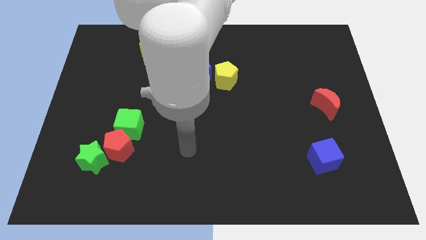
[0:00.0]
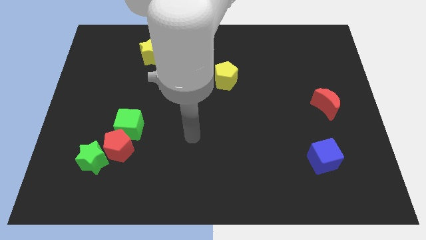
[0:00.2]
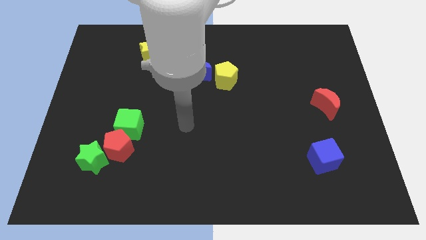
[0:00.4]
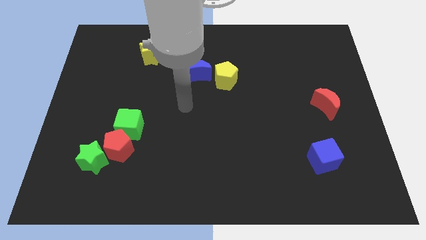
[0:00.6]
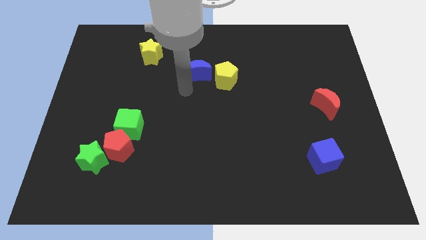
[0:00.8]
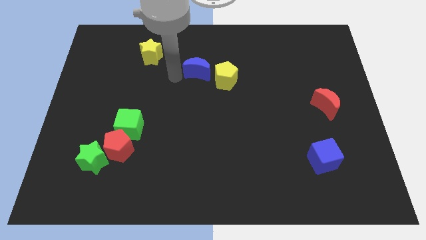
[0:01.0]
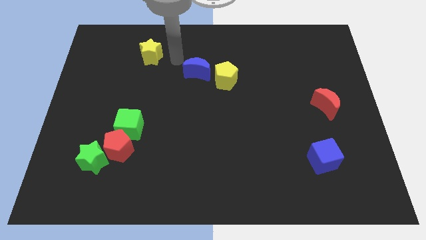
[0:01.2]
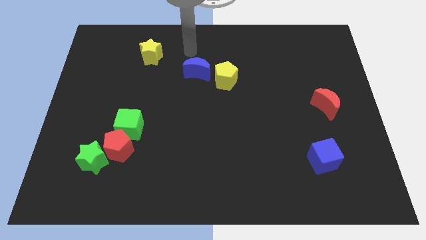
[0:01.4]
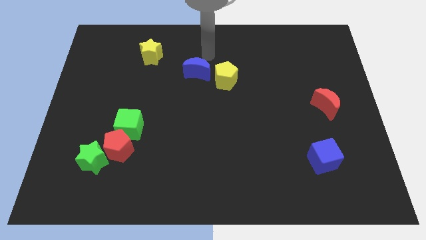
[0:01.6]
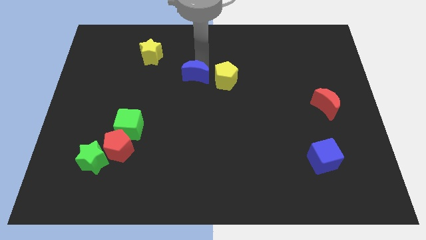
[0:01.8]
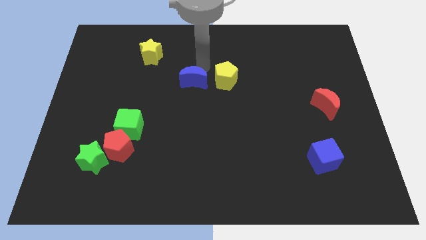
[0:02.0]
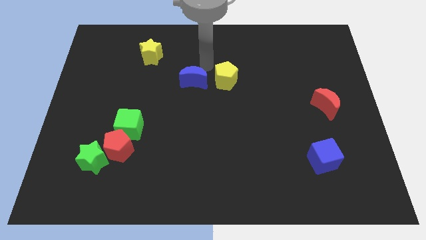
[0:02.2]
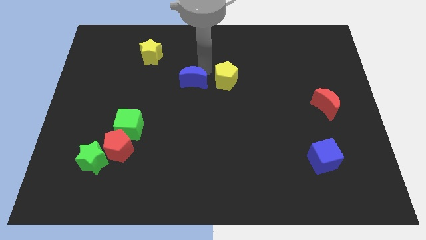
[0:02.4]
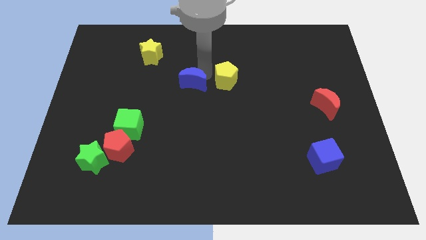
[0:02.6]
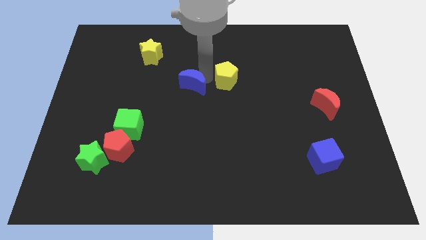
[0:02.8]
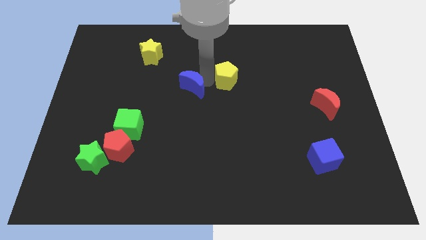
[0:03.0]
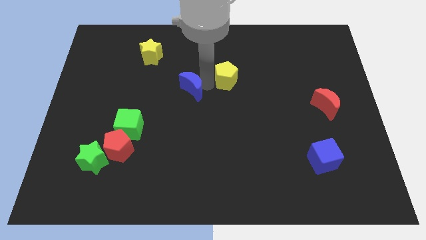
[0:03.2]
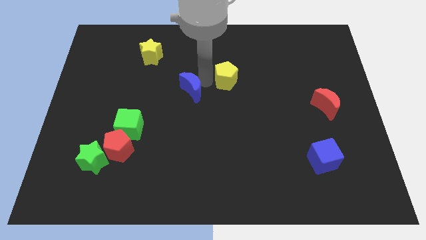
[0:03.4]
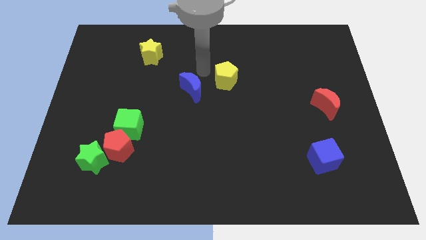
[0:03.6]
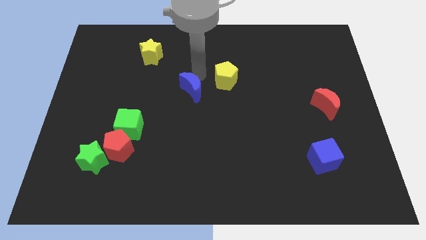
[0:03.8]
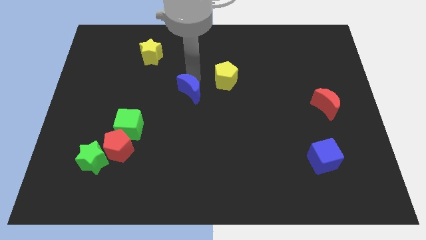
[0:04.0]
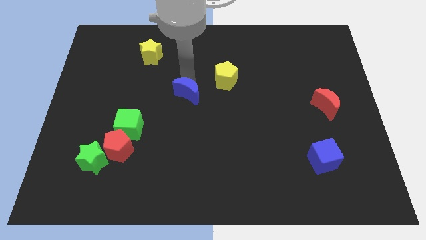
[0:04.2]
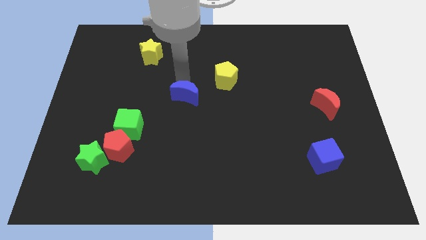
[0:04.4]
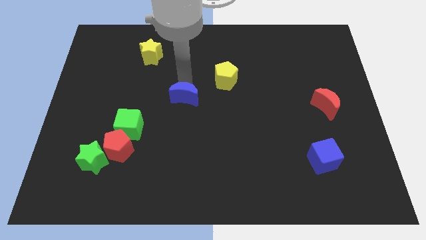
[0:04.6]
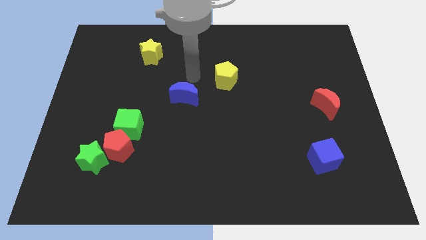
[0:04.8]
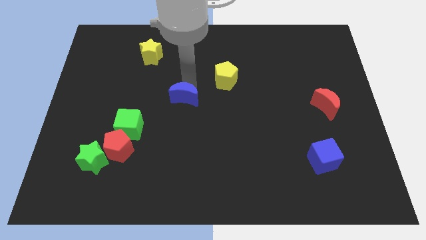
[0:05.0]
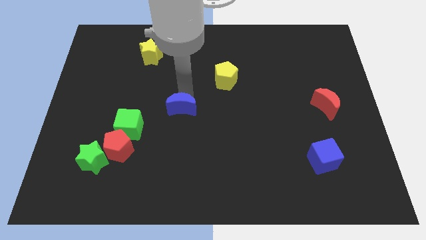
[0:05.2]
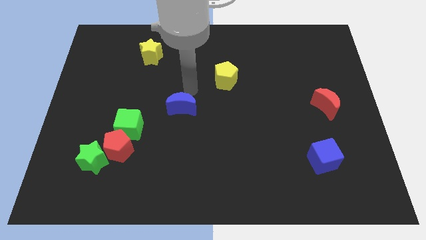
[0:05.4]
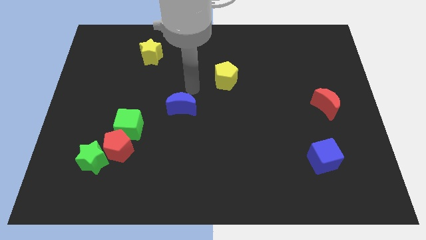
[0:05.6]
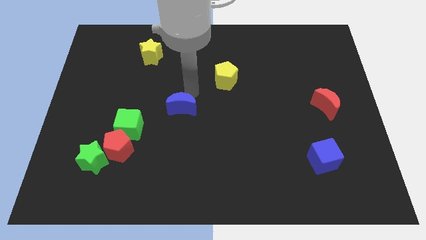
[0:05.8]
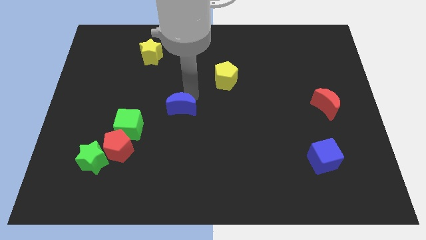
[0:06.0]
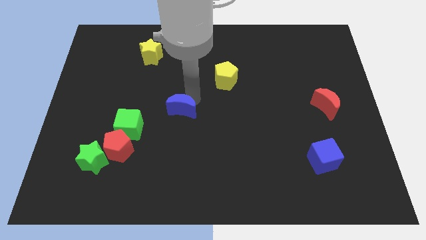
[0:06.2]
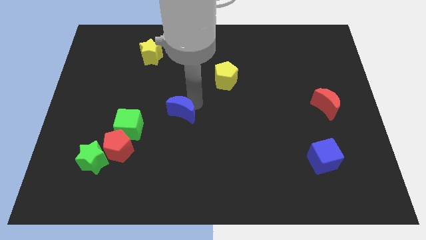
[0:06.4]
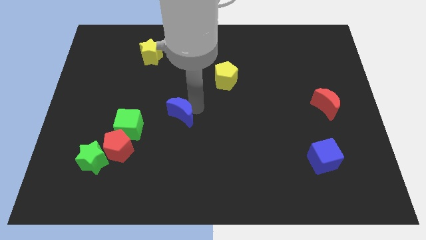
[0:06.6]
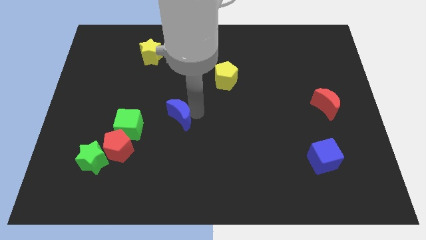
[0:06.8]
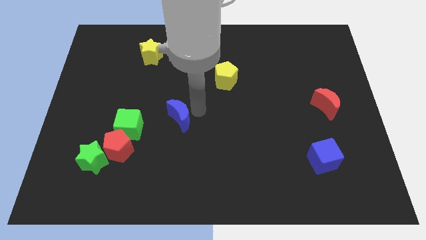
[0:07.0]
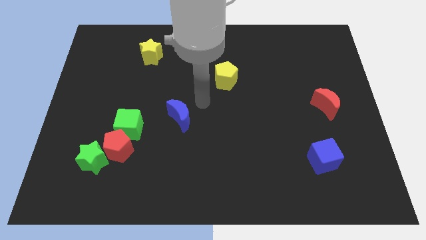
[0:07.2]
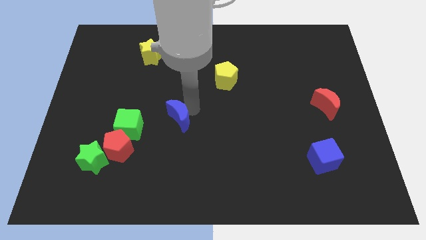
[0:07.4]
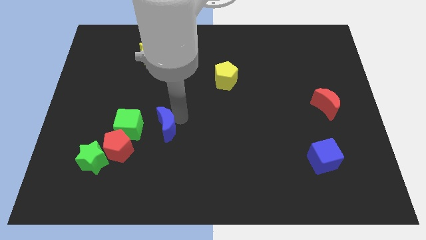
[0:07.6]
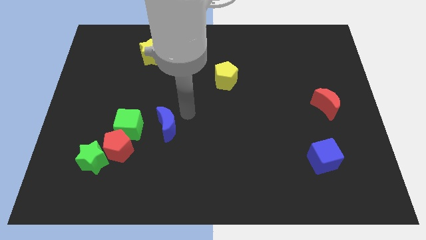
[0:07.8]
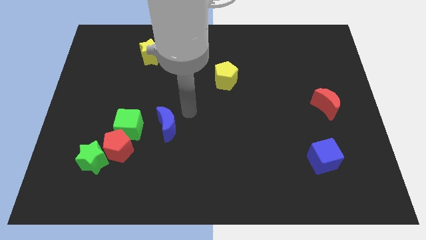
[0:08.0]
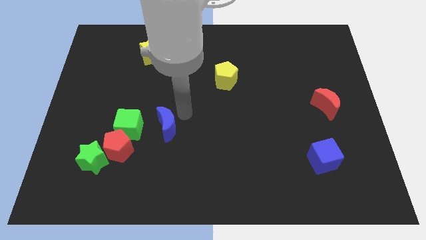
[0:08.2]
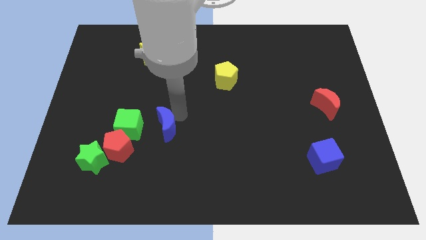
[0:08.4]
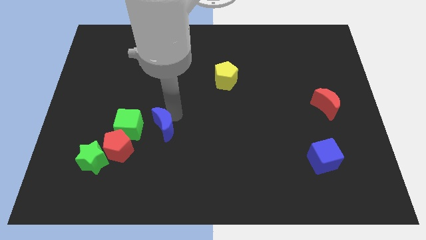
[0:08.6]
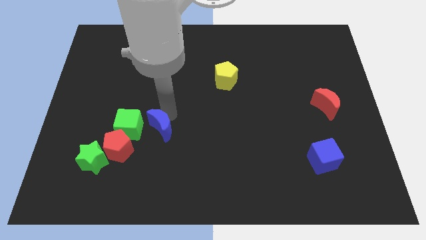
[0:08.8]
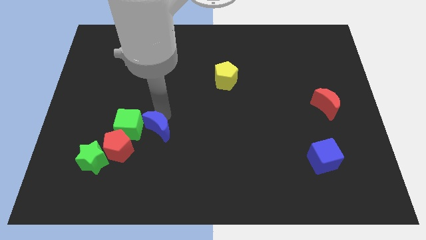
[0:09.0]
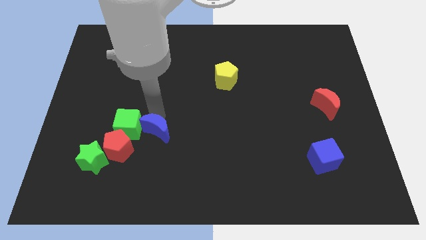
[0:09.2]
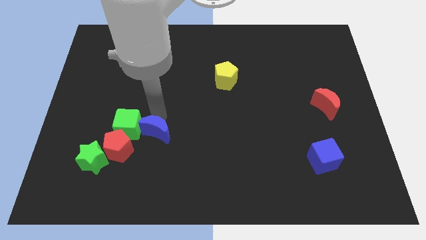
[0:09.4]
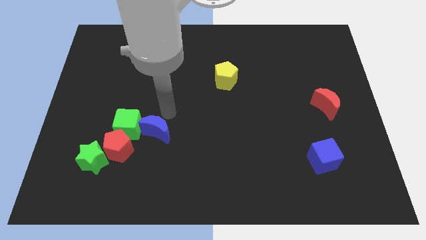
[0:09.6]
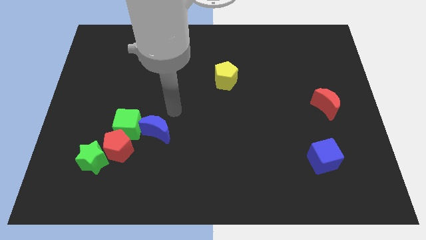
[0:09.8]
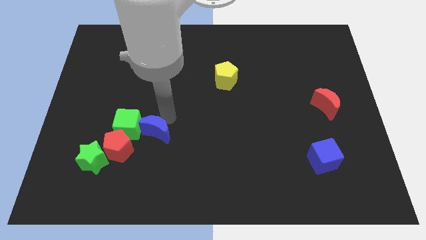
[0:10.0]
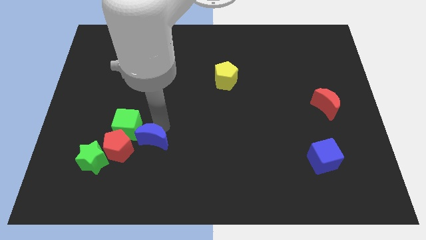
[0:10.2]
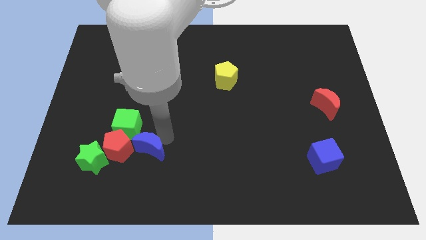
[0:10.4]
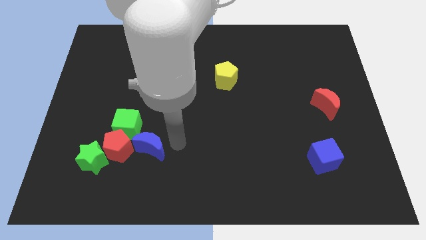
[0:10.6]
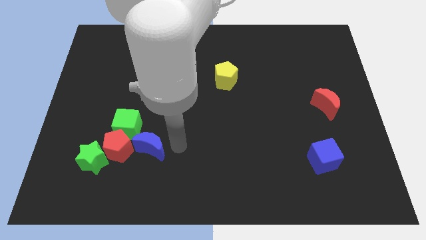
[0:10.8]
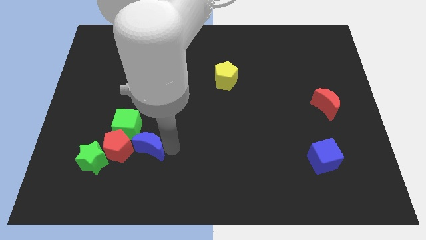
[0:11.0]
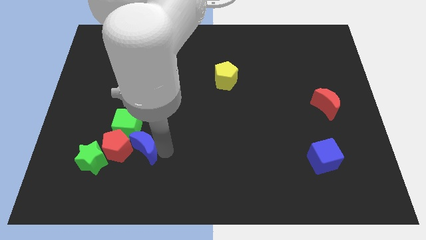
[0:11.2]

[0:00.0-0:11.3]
put the blue moon to the red pentagon

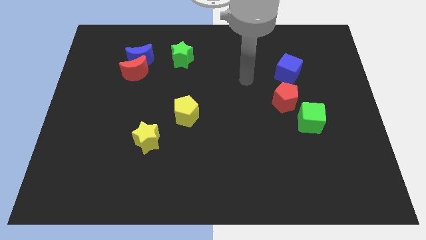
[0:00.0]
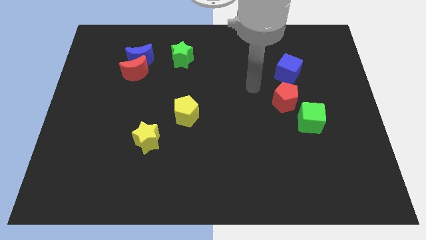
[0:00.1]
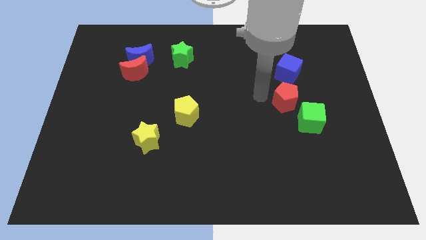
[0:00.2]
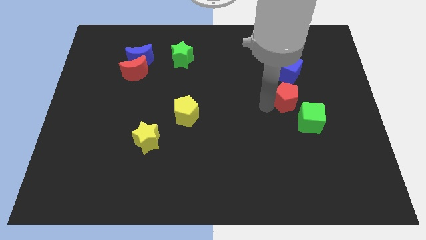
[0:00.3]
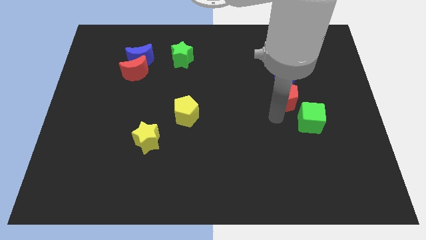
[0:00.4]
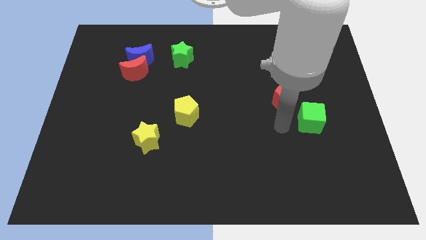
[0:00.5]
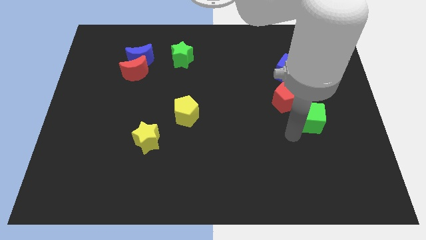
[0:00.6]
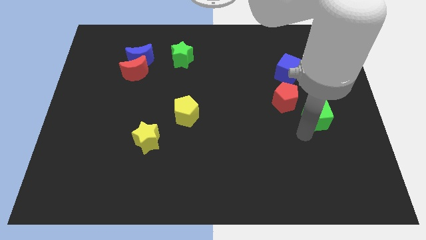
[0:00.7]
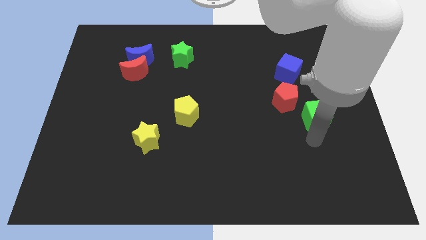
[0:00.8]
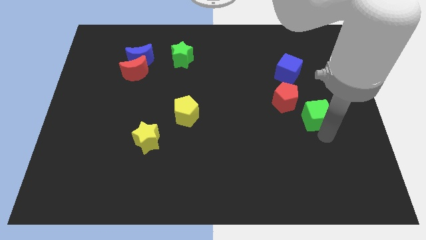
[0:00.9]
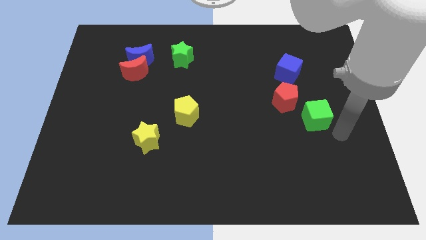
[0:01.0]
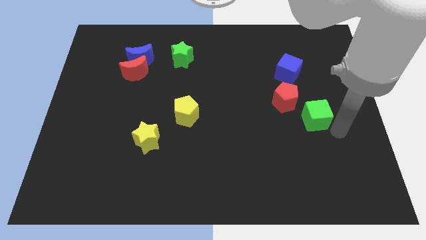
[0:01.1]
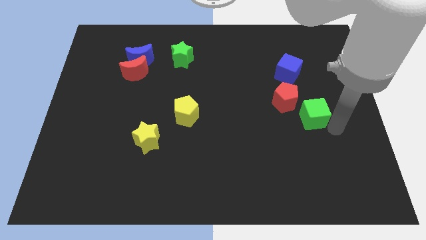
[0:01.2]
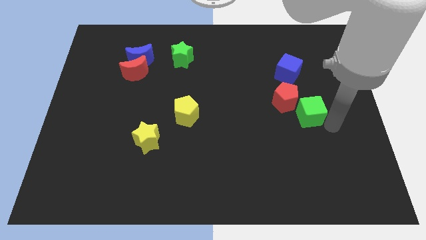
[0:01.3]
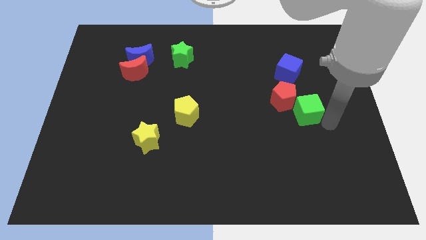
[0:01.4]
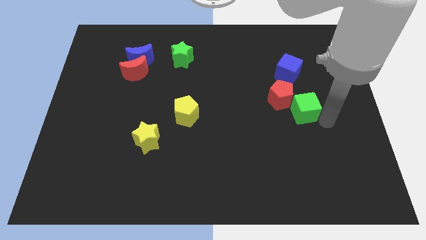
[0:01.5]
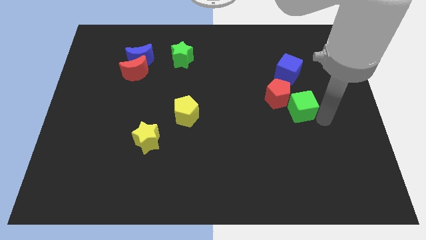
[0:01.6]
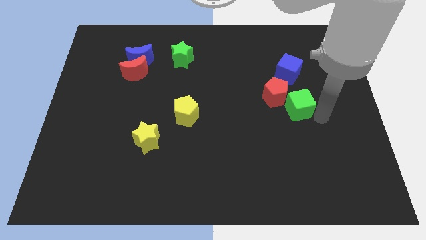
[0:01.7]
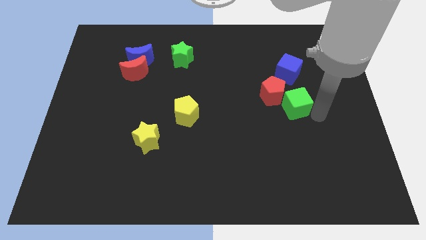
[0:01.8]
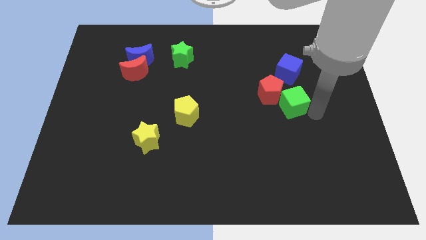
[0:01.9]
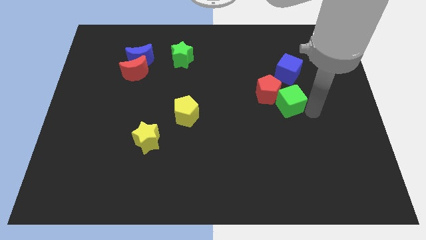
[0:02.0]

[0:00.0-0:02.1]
slide the green cube close to the red pentagon
